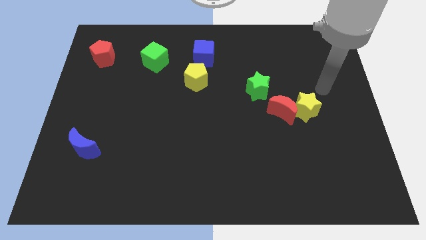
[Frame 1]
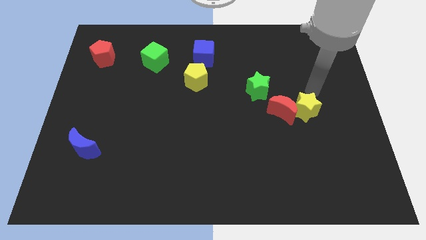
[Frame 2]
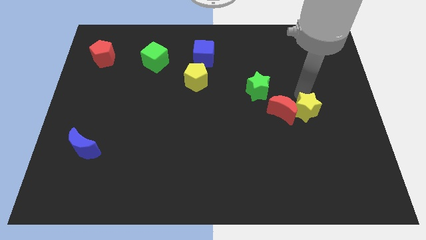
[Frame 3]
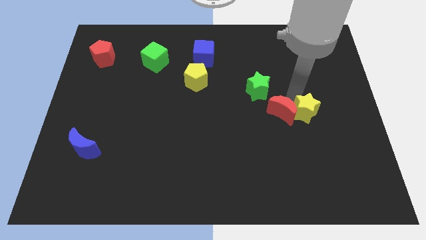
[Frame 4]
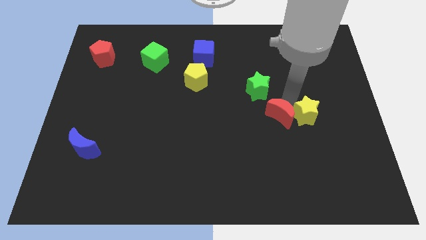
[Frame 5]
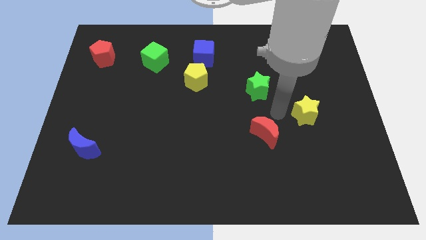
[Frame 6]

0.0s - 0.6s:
separate the yellow star from the red moon

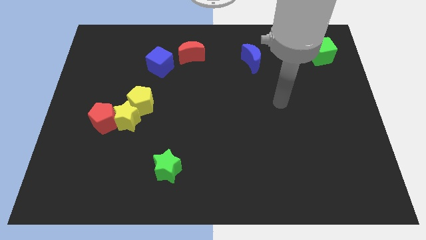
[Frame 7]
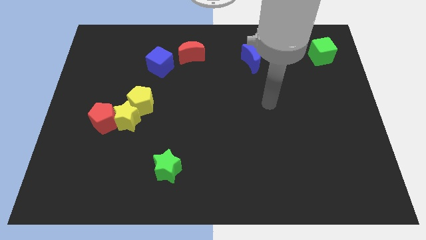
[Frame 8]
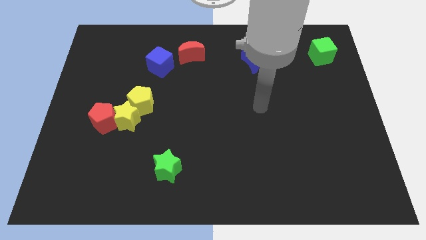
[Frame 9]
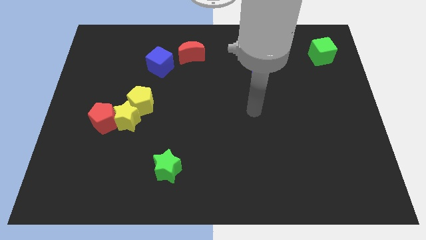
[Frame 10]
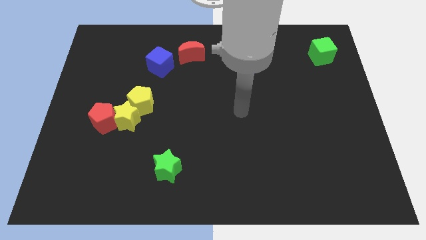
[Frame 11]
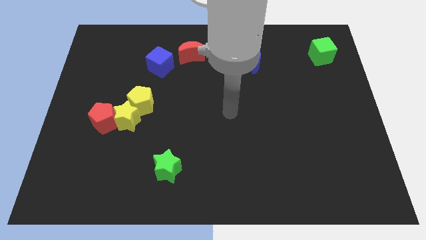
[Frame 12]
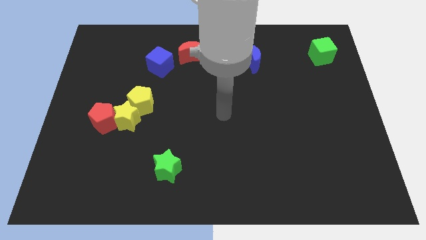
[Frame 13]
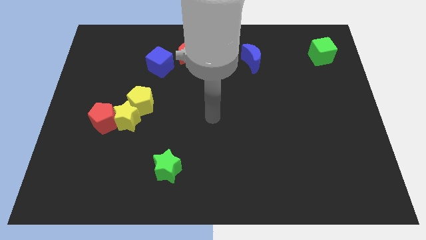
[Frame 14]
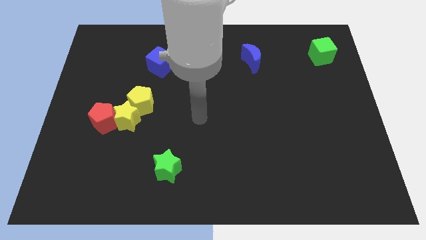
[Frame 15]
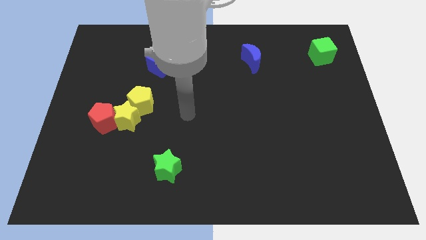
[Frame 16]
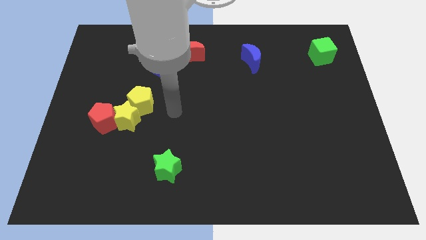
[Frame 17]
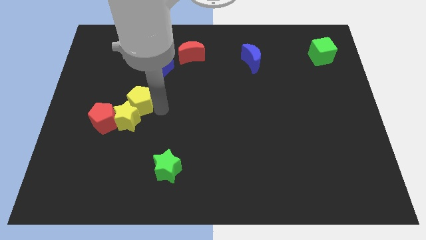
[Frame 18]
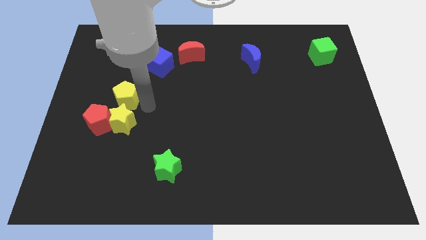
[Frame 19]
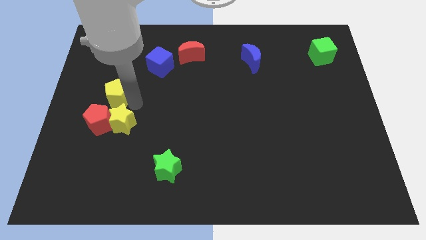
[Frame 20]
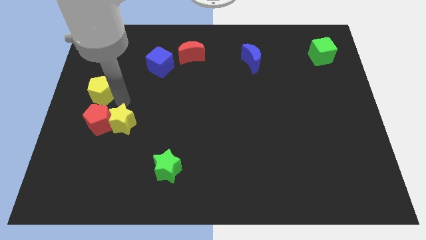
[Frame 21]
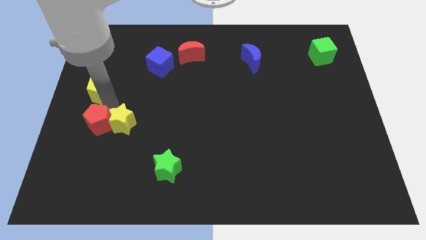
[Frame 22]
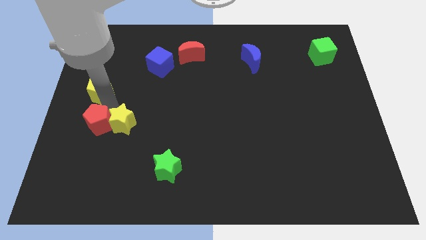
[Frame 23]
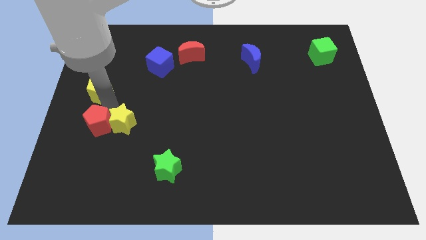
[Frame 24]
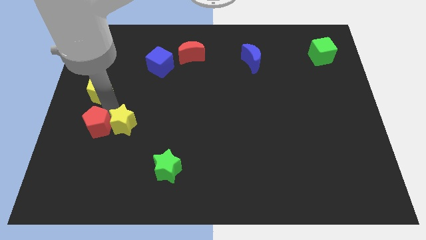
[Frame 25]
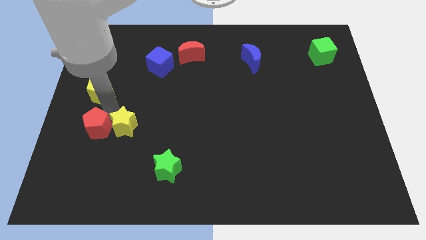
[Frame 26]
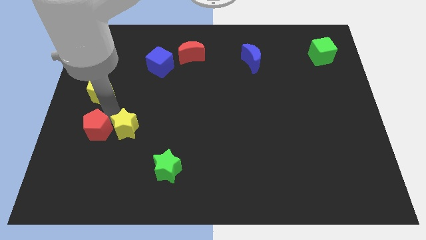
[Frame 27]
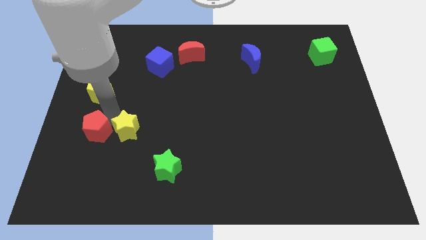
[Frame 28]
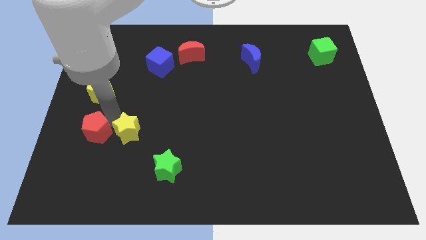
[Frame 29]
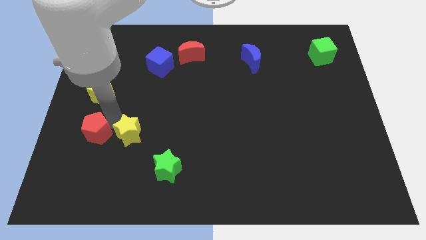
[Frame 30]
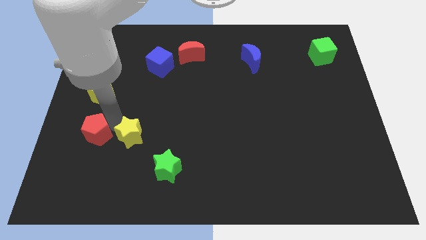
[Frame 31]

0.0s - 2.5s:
pull the yellow star apart from the yellow pentagon and red pentagon

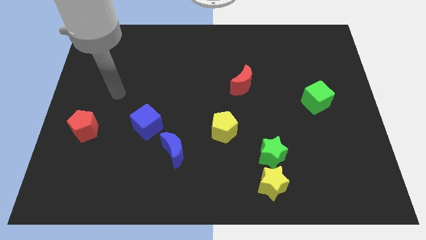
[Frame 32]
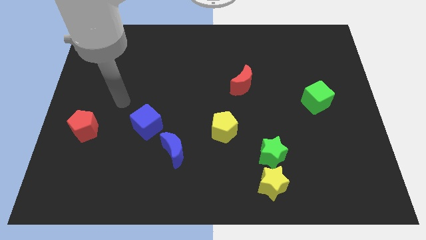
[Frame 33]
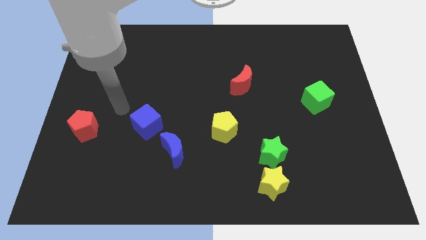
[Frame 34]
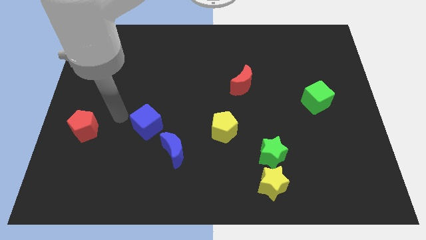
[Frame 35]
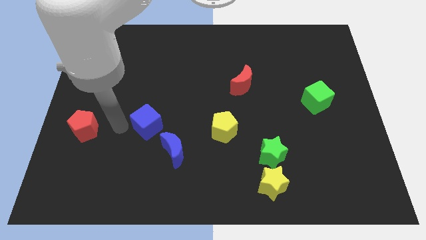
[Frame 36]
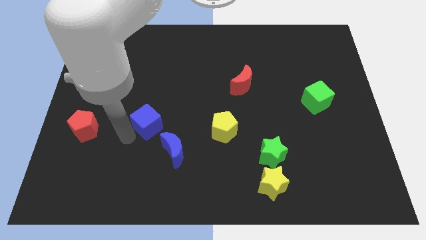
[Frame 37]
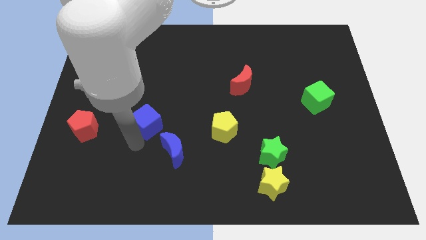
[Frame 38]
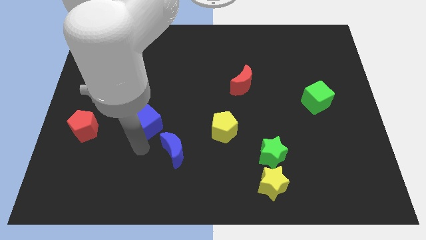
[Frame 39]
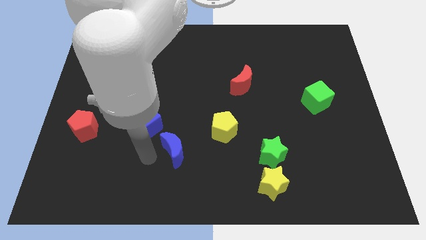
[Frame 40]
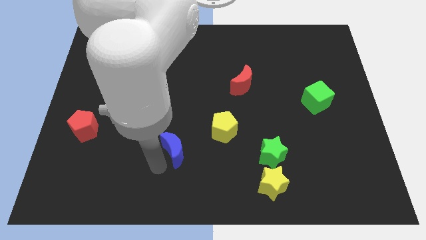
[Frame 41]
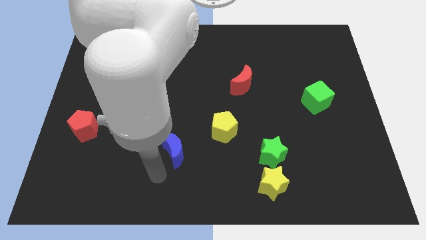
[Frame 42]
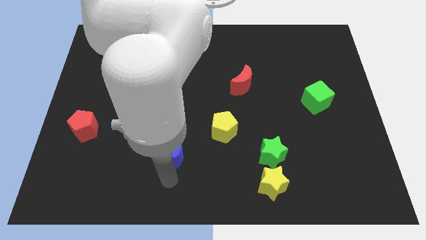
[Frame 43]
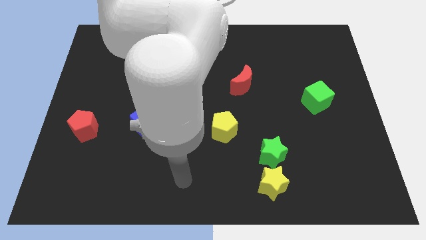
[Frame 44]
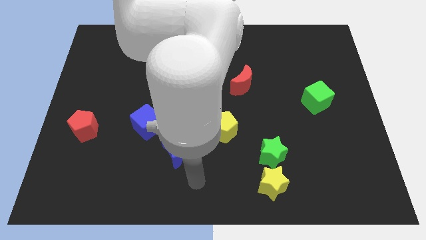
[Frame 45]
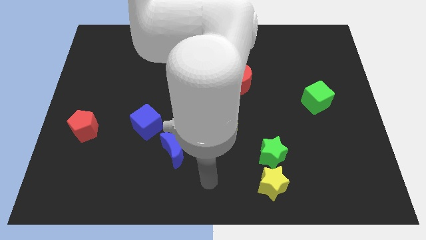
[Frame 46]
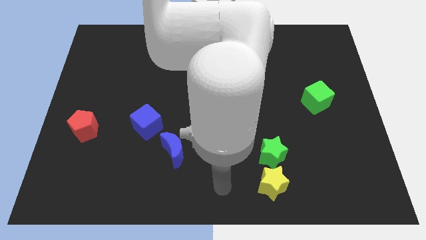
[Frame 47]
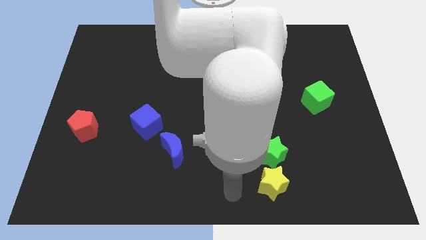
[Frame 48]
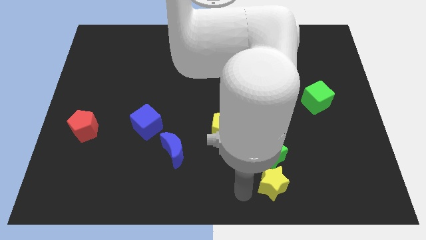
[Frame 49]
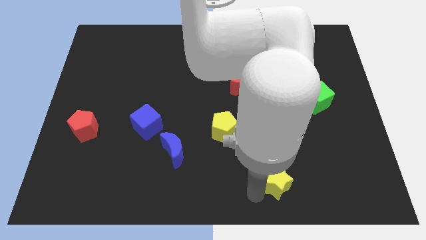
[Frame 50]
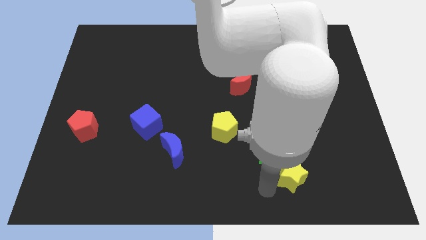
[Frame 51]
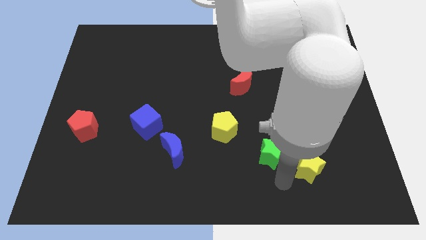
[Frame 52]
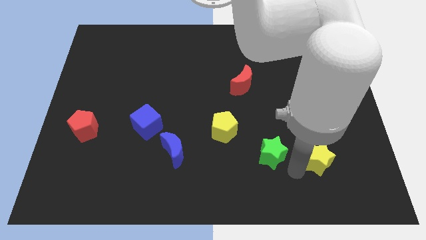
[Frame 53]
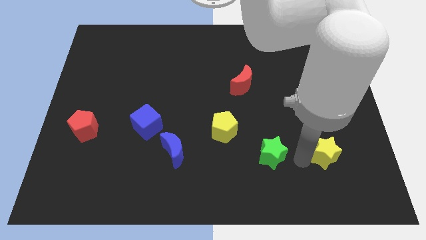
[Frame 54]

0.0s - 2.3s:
move the green star away from the yellow star

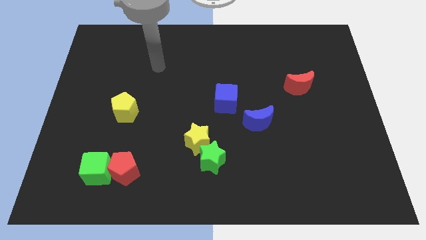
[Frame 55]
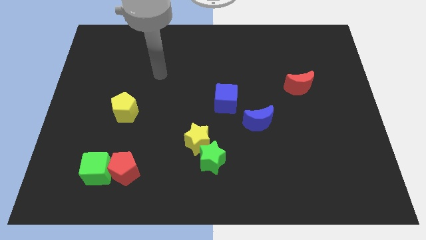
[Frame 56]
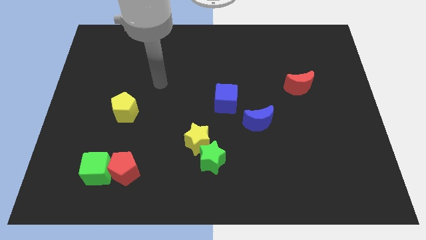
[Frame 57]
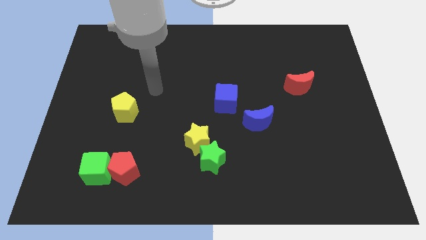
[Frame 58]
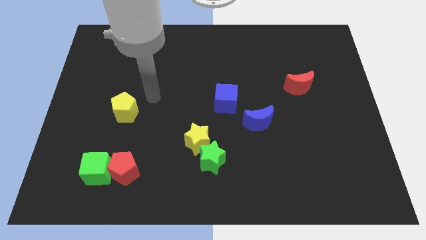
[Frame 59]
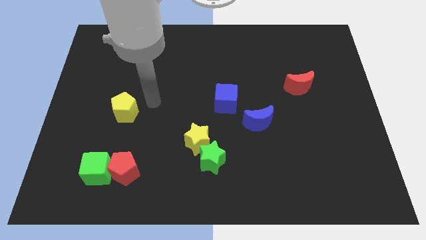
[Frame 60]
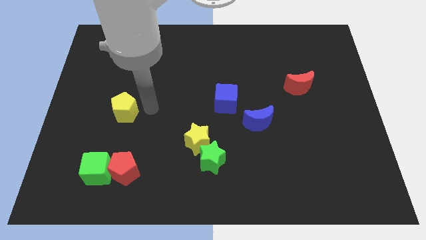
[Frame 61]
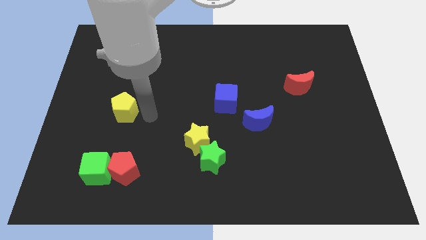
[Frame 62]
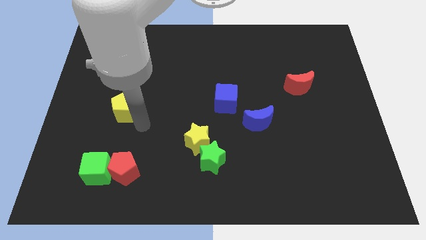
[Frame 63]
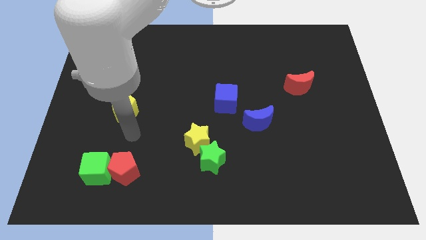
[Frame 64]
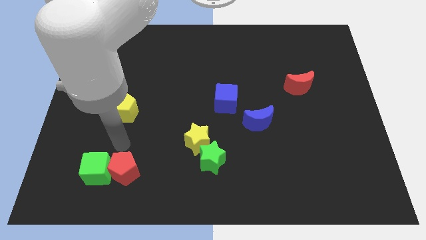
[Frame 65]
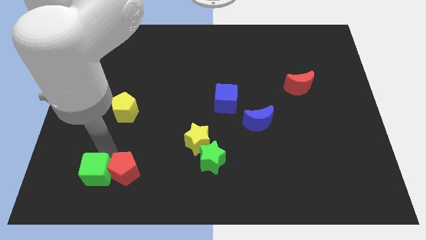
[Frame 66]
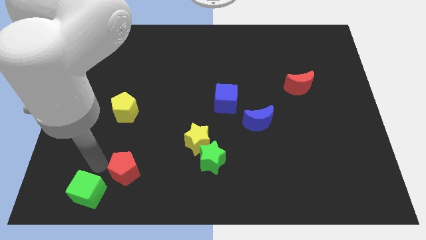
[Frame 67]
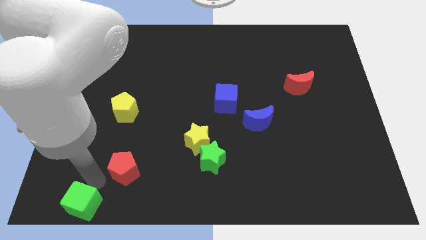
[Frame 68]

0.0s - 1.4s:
move the red pentagon away from the green cube

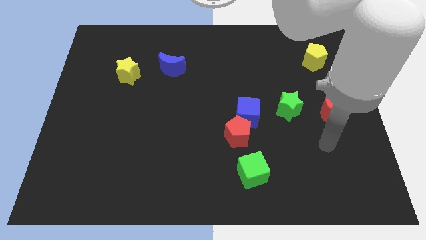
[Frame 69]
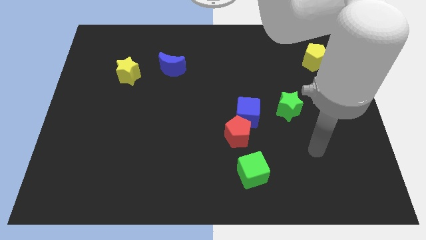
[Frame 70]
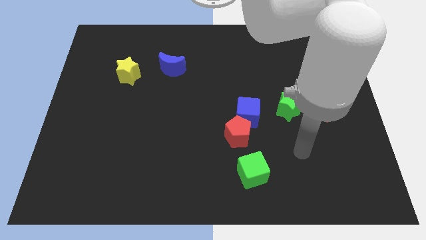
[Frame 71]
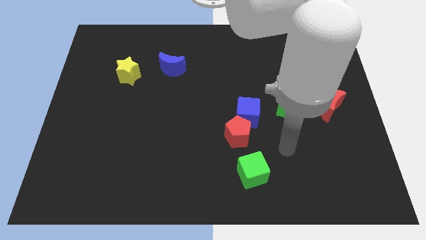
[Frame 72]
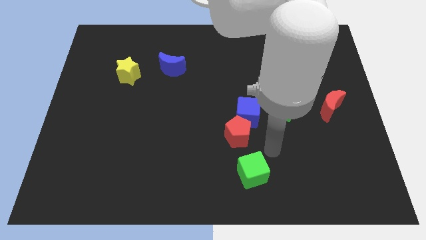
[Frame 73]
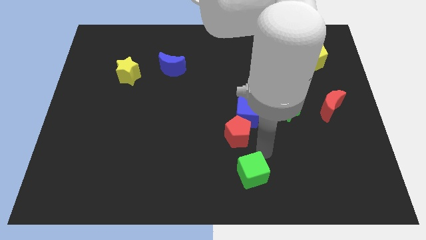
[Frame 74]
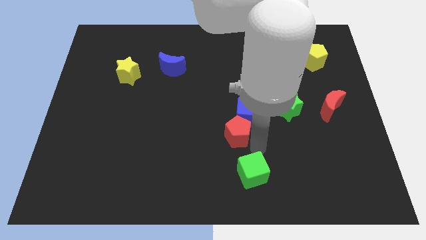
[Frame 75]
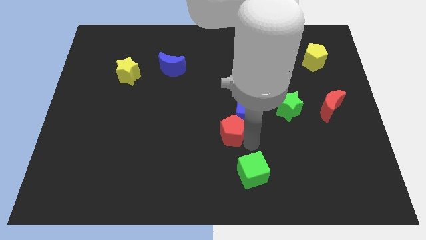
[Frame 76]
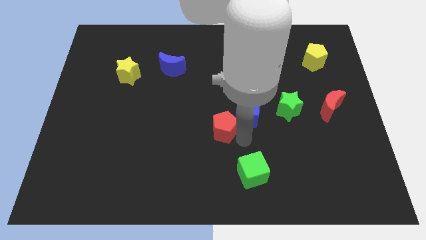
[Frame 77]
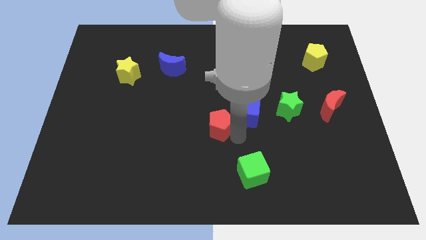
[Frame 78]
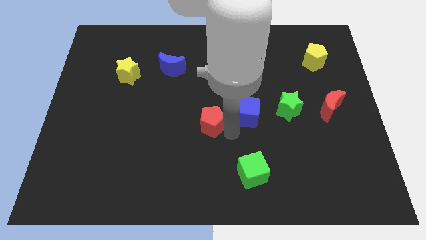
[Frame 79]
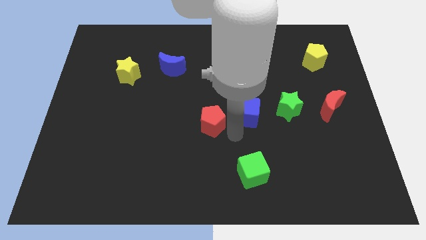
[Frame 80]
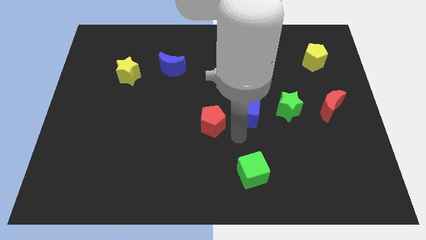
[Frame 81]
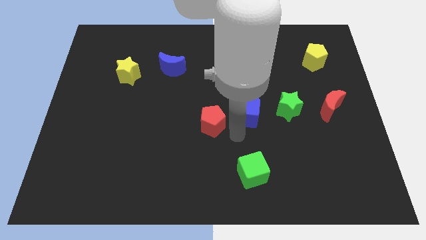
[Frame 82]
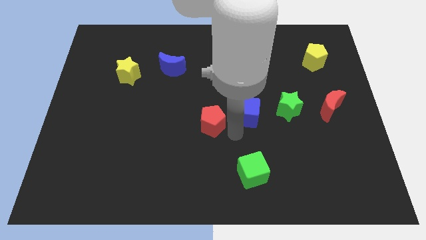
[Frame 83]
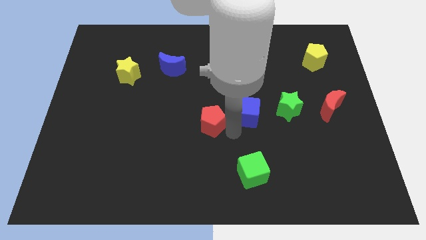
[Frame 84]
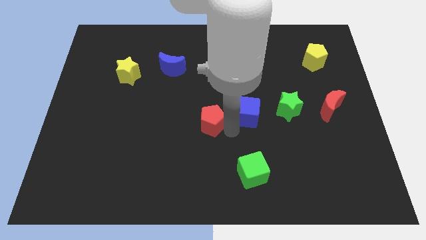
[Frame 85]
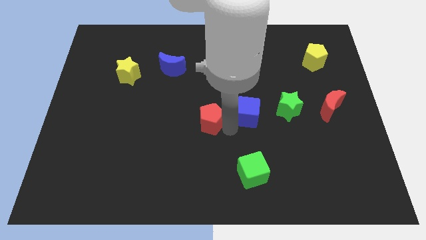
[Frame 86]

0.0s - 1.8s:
separate the red pentagon from the blue cube and green cube

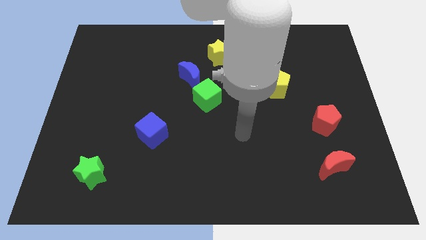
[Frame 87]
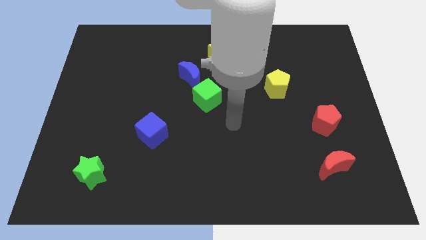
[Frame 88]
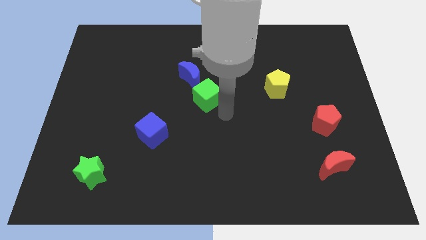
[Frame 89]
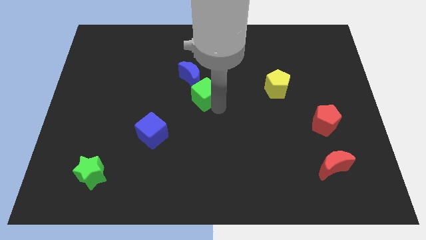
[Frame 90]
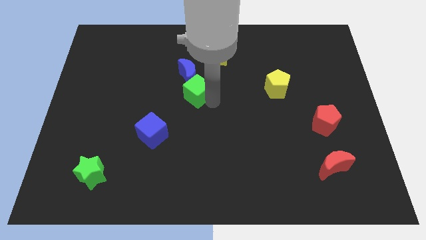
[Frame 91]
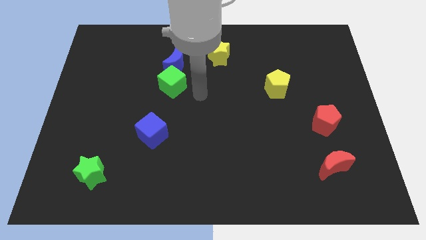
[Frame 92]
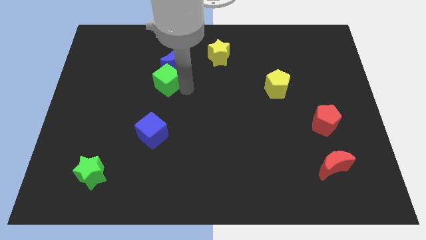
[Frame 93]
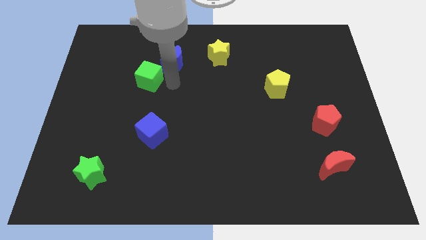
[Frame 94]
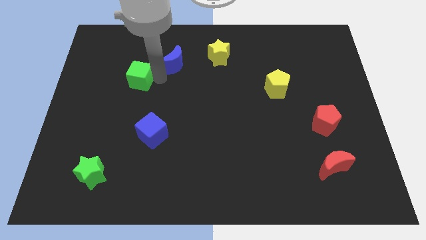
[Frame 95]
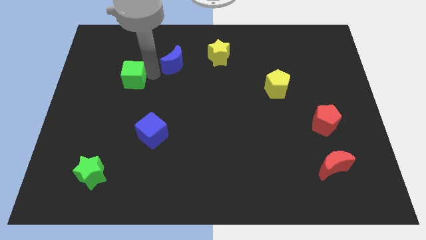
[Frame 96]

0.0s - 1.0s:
move the blue moon away from the green cube
